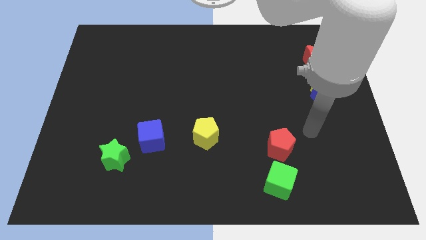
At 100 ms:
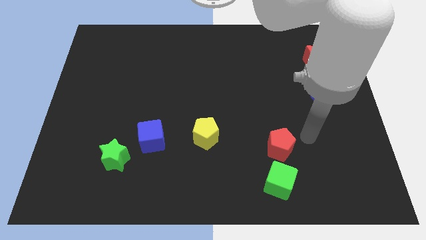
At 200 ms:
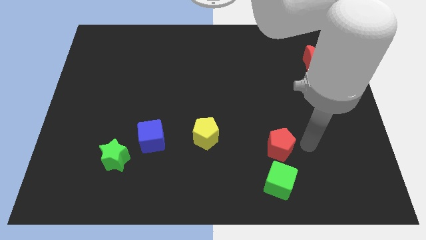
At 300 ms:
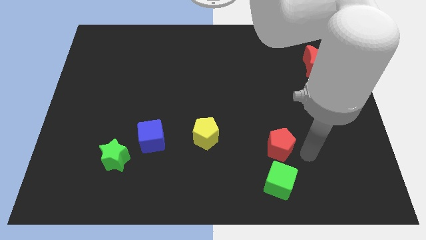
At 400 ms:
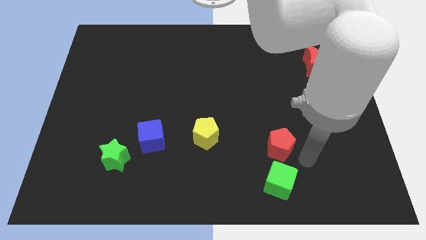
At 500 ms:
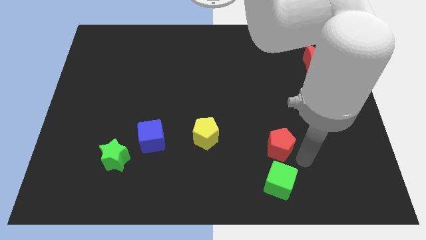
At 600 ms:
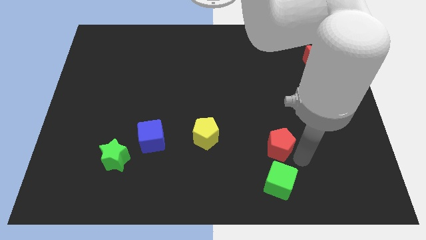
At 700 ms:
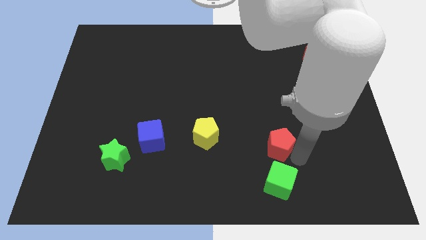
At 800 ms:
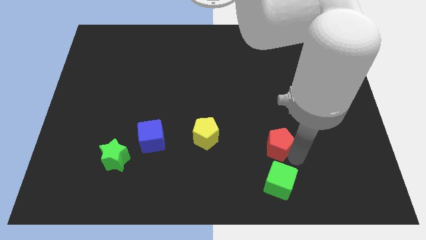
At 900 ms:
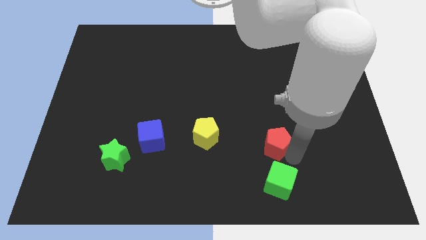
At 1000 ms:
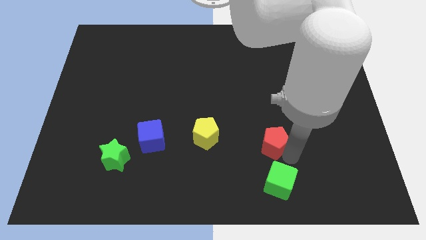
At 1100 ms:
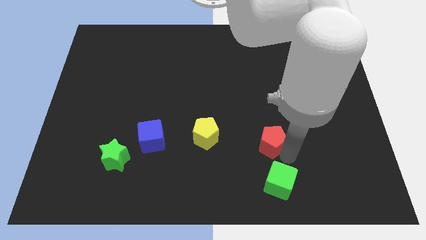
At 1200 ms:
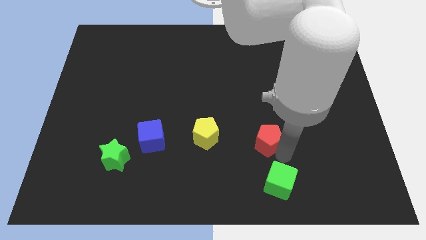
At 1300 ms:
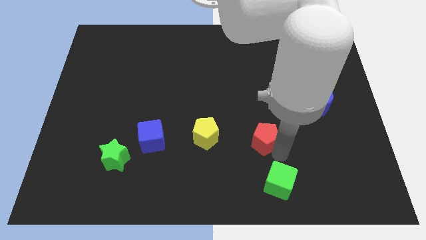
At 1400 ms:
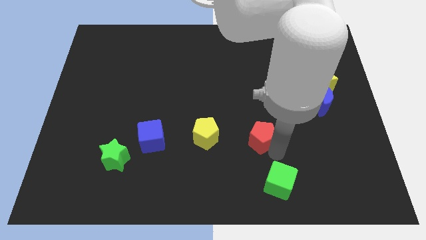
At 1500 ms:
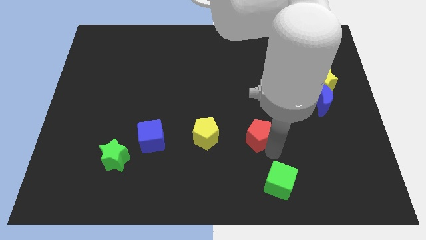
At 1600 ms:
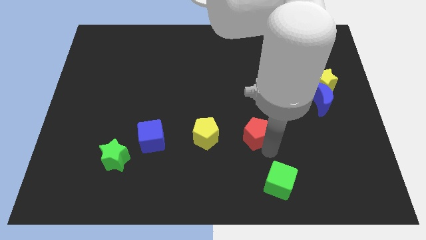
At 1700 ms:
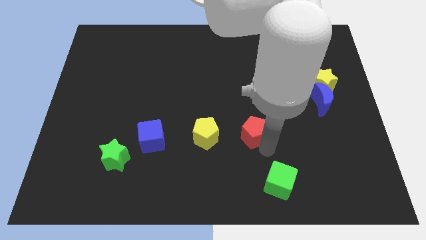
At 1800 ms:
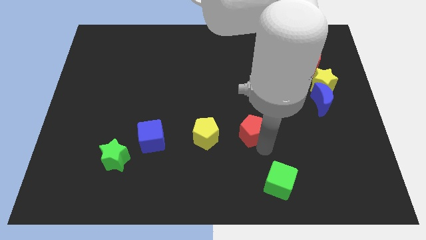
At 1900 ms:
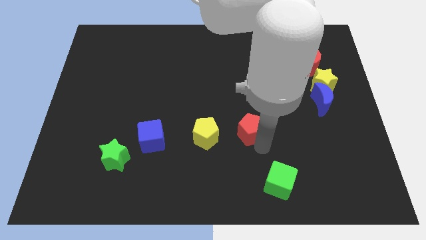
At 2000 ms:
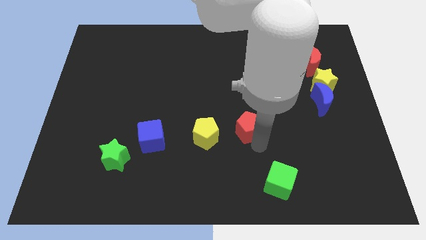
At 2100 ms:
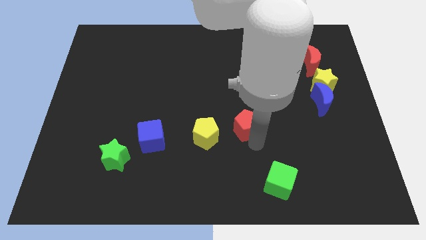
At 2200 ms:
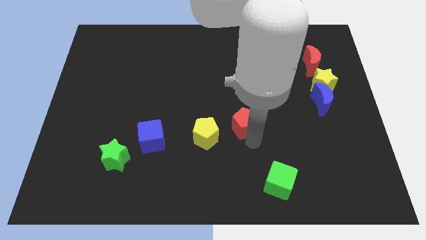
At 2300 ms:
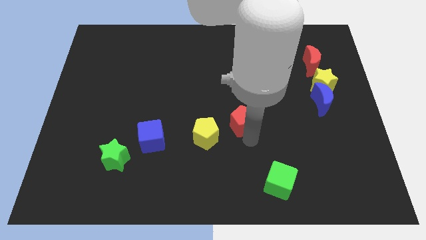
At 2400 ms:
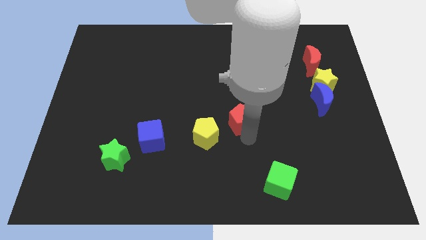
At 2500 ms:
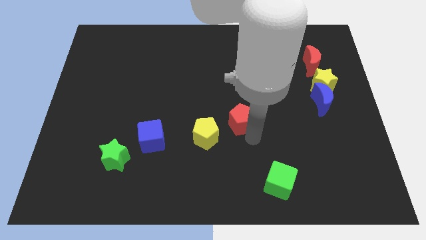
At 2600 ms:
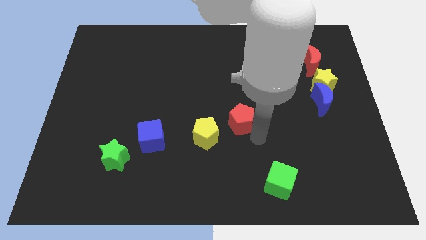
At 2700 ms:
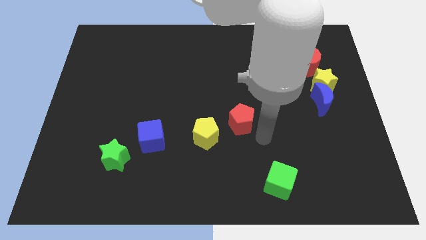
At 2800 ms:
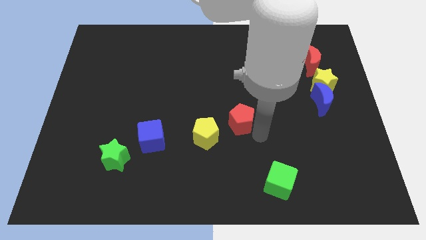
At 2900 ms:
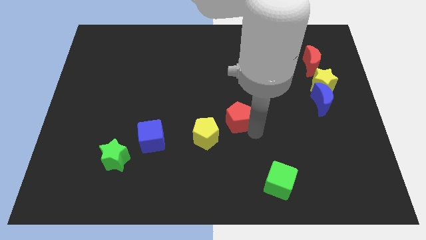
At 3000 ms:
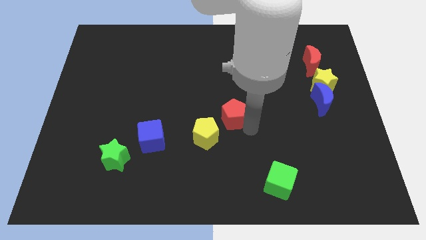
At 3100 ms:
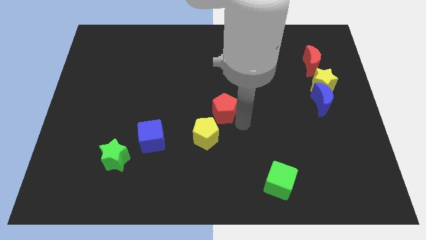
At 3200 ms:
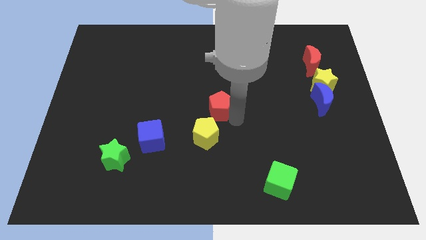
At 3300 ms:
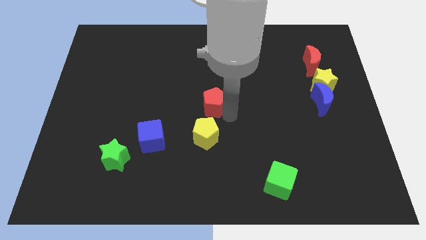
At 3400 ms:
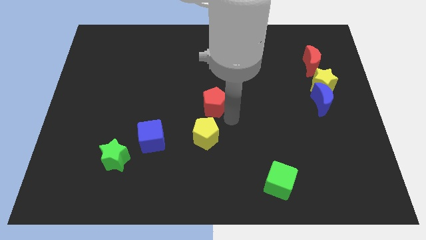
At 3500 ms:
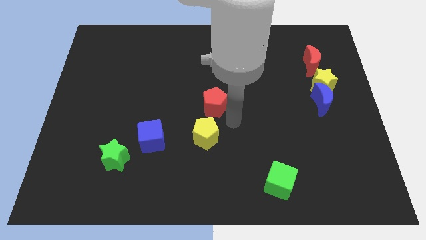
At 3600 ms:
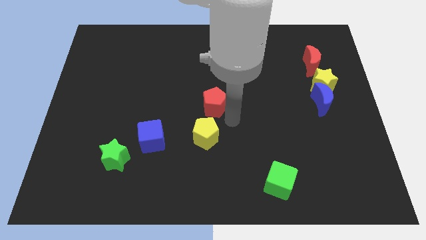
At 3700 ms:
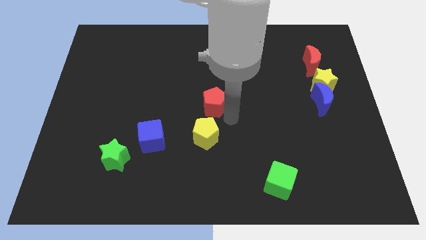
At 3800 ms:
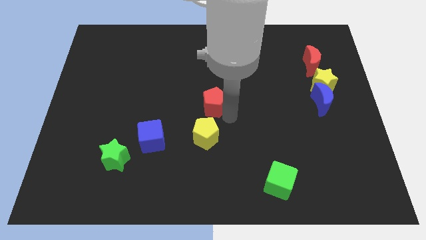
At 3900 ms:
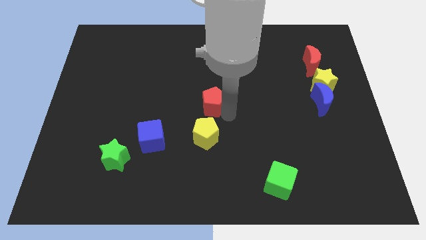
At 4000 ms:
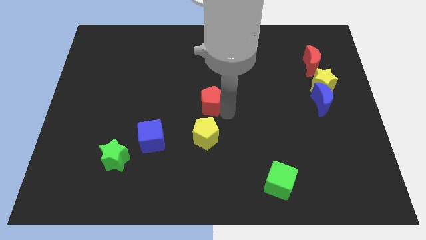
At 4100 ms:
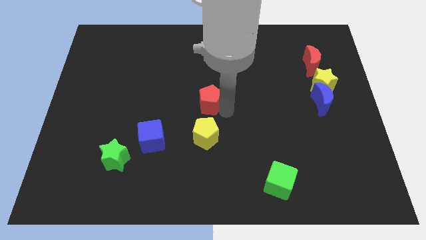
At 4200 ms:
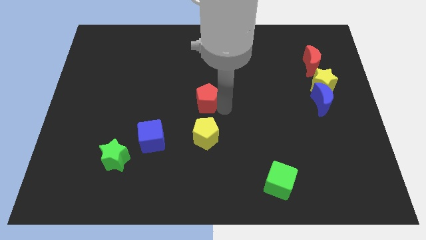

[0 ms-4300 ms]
slide the red pentagon up and then left

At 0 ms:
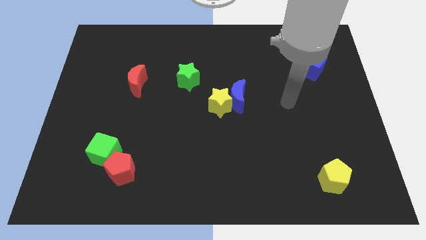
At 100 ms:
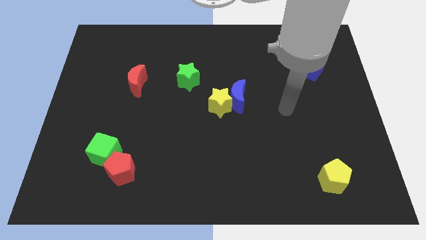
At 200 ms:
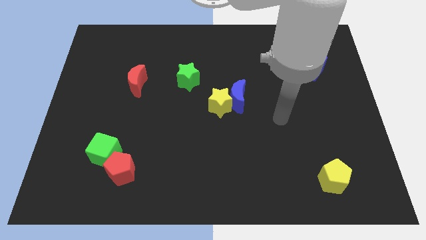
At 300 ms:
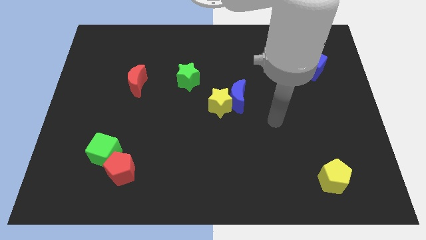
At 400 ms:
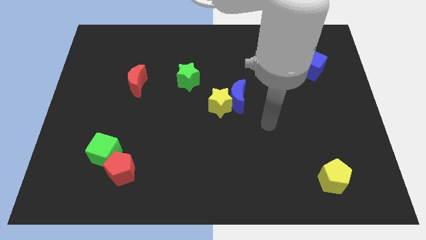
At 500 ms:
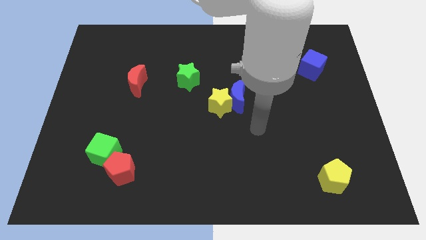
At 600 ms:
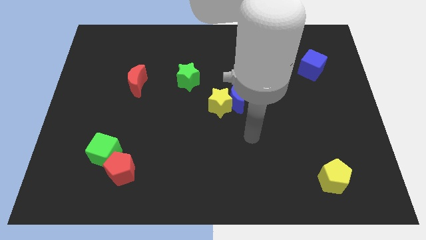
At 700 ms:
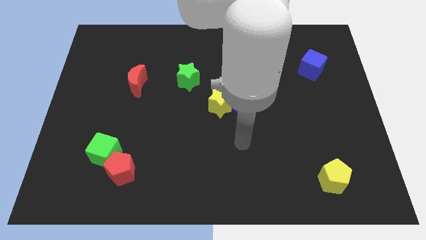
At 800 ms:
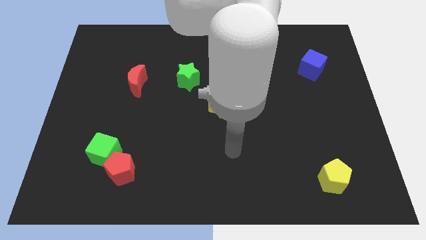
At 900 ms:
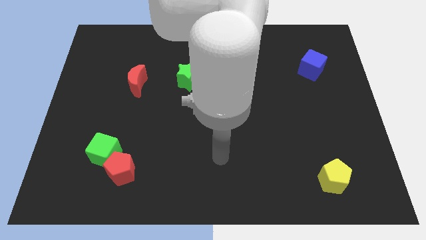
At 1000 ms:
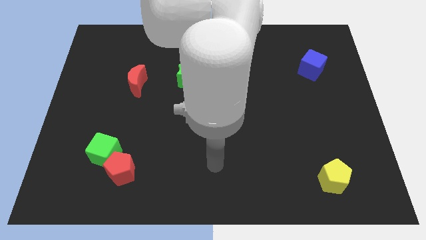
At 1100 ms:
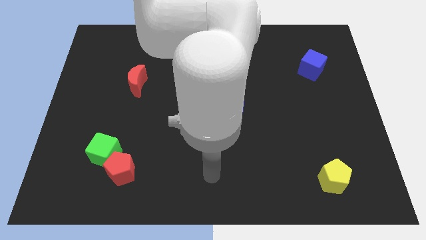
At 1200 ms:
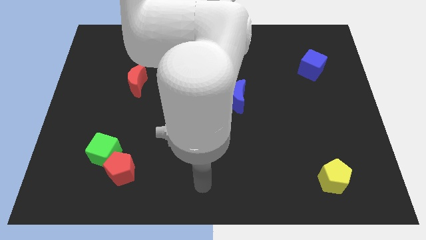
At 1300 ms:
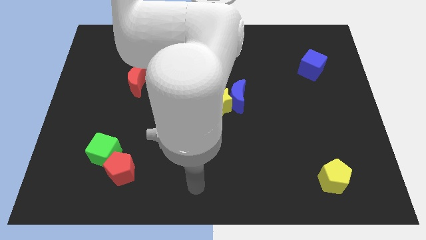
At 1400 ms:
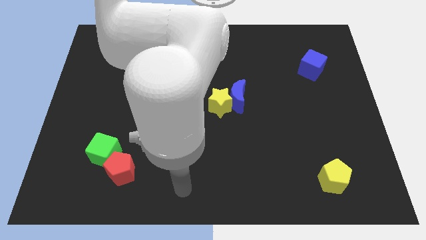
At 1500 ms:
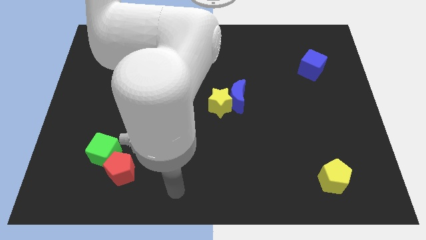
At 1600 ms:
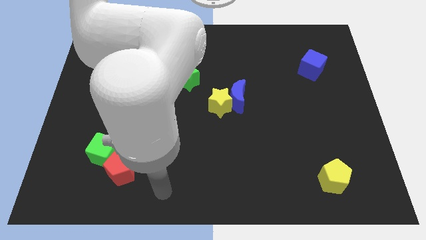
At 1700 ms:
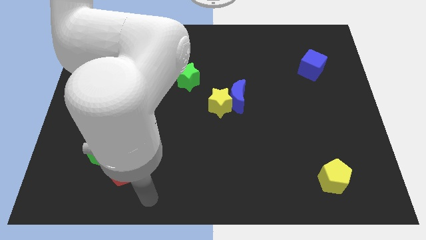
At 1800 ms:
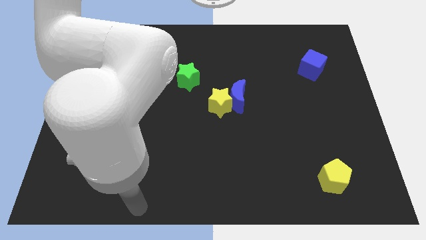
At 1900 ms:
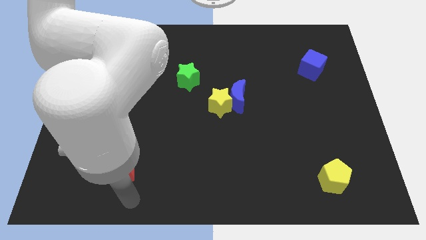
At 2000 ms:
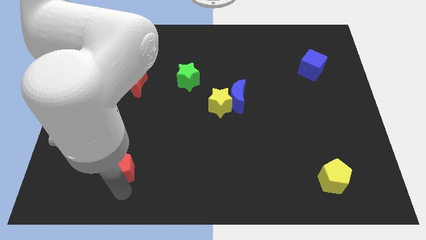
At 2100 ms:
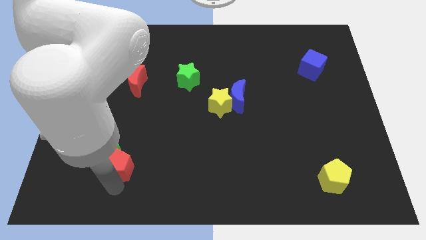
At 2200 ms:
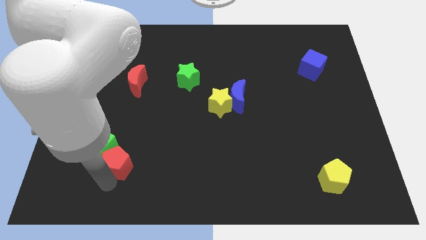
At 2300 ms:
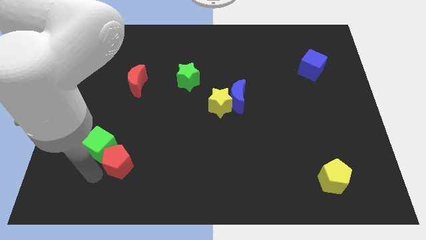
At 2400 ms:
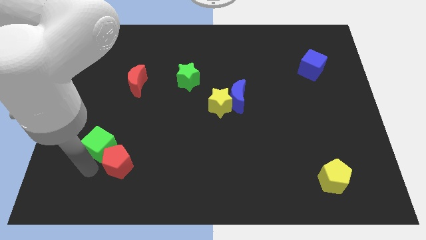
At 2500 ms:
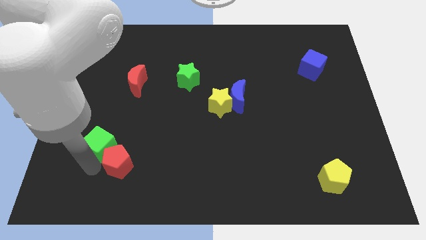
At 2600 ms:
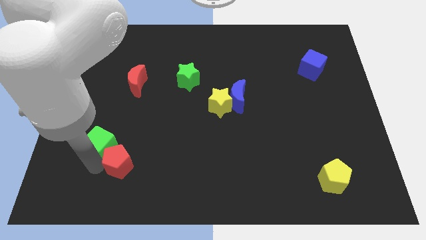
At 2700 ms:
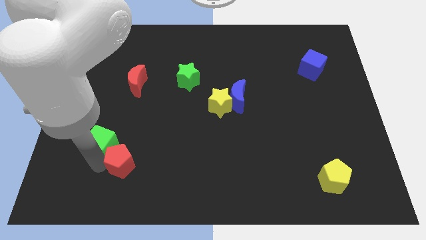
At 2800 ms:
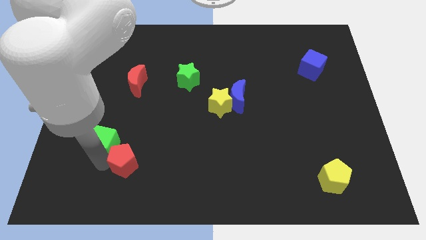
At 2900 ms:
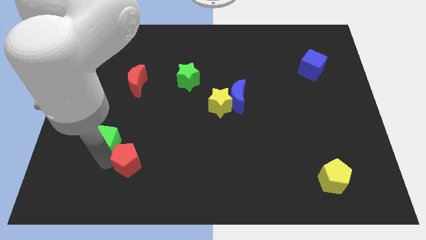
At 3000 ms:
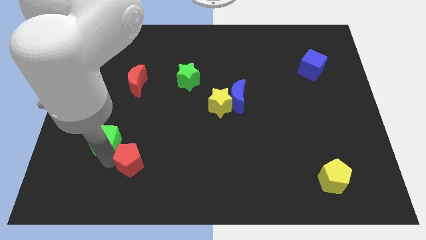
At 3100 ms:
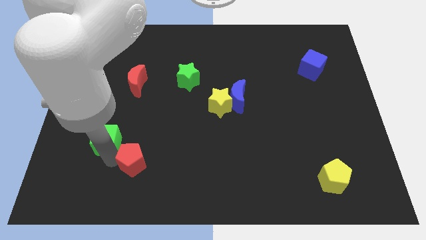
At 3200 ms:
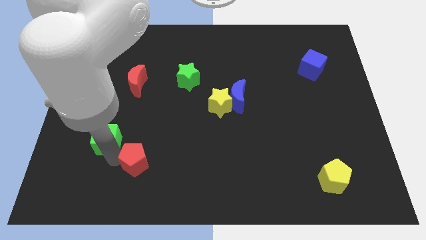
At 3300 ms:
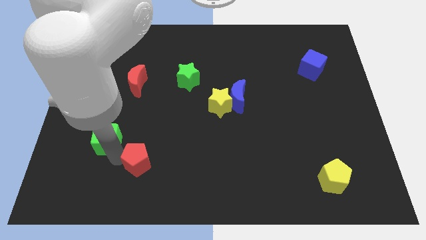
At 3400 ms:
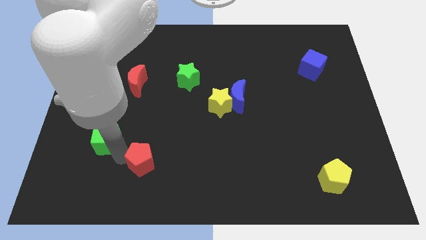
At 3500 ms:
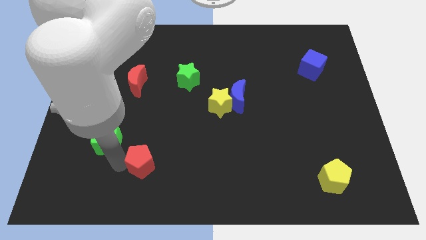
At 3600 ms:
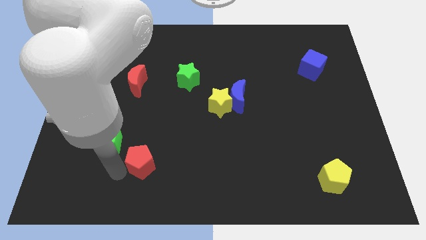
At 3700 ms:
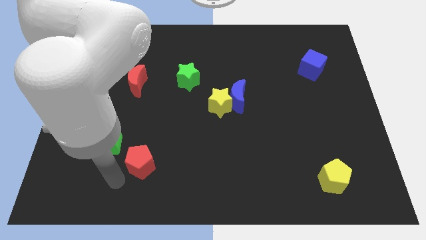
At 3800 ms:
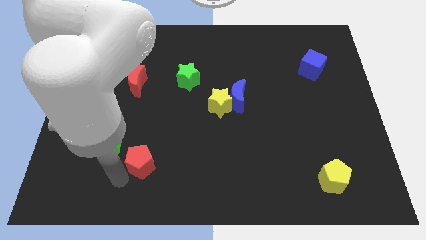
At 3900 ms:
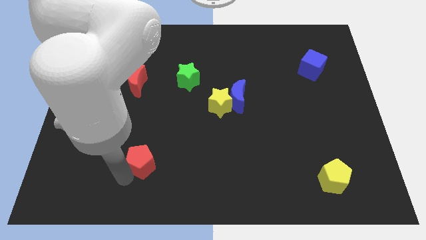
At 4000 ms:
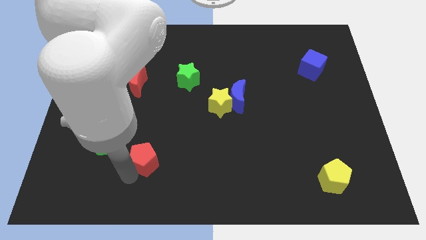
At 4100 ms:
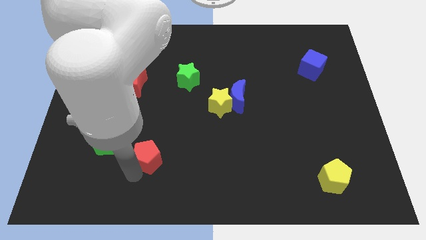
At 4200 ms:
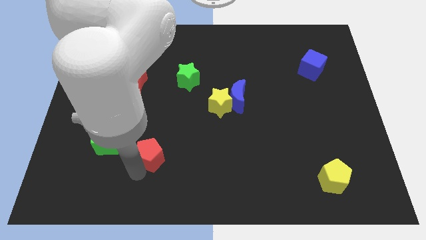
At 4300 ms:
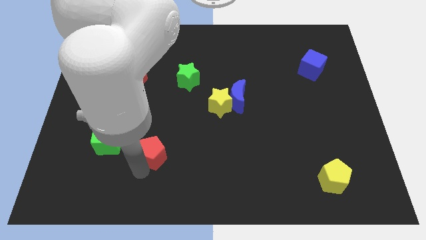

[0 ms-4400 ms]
move the red pentagon somewhat up and right diagonally
